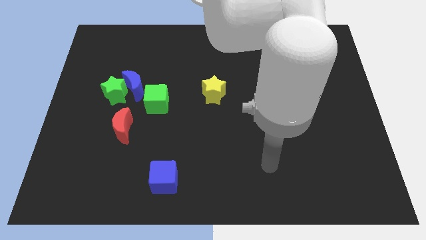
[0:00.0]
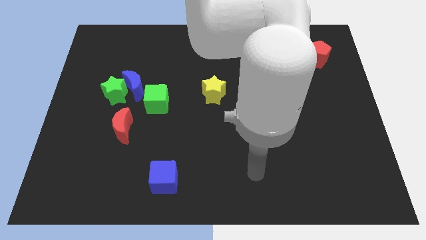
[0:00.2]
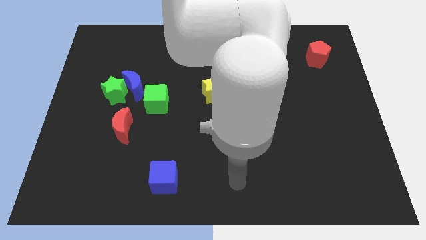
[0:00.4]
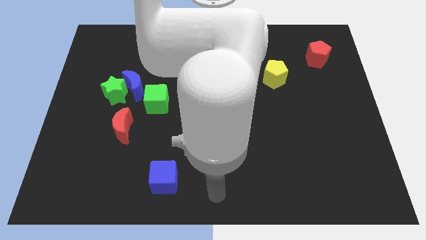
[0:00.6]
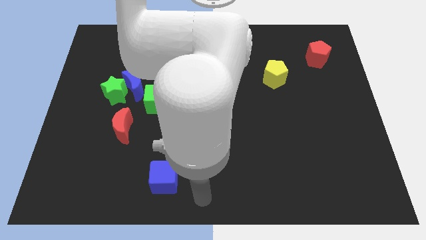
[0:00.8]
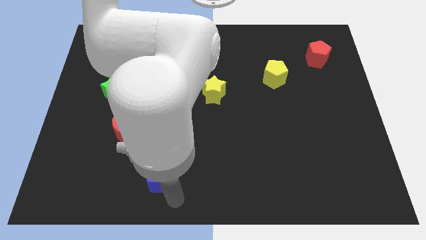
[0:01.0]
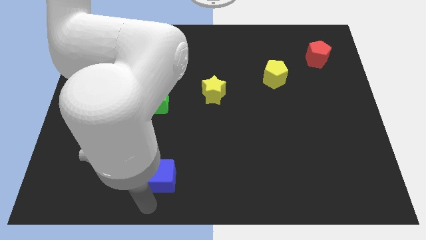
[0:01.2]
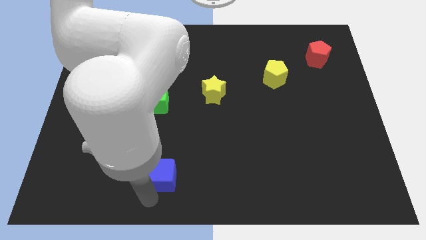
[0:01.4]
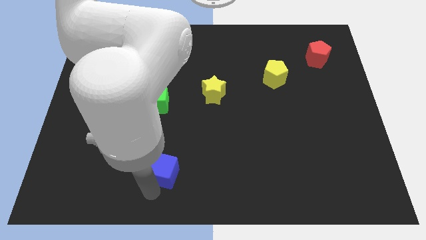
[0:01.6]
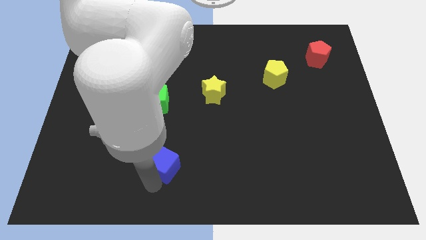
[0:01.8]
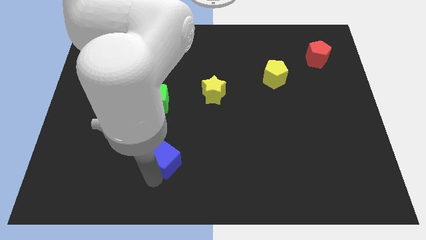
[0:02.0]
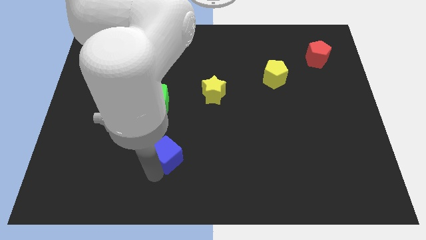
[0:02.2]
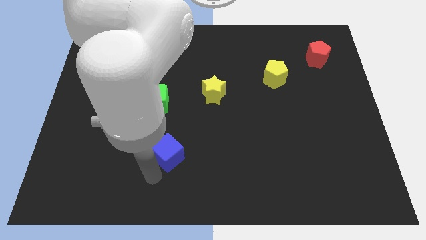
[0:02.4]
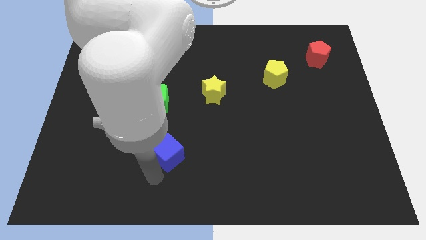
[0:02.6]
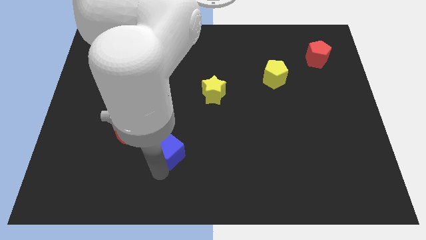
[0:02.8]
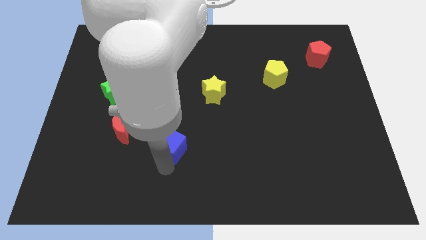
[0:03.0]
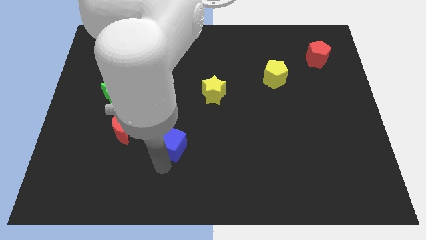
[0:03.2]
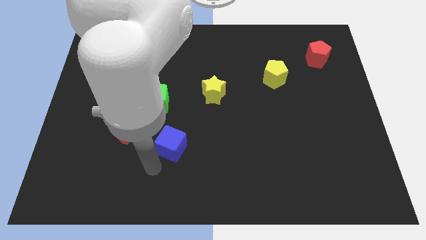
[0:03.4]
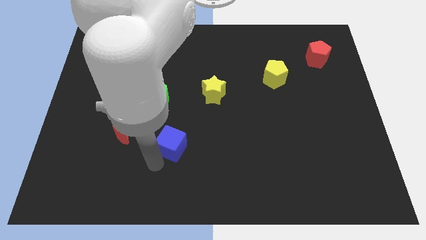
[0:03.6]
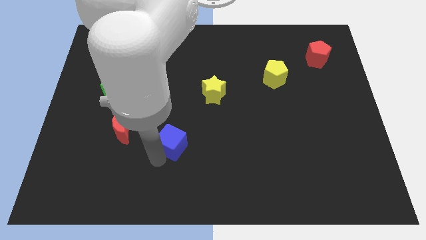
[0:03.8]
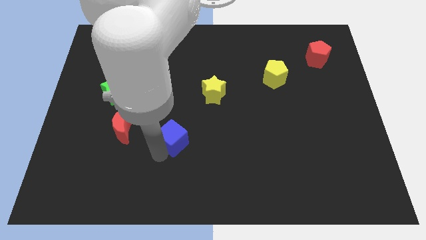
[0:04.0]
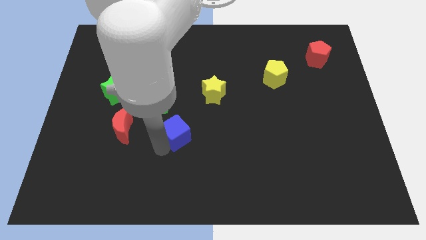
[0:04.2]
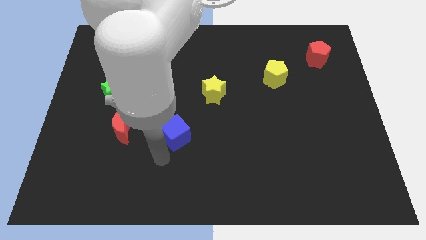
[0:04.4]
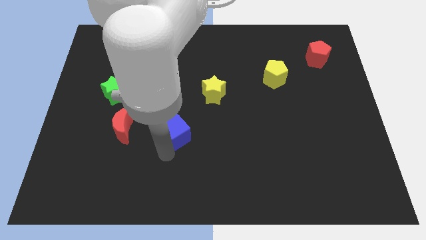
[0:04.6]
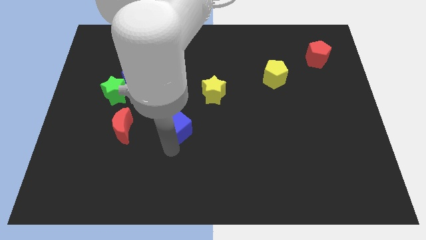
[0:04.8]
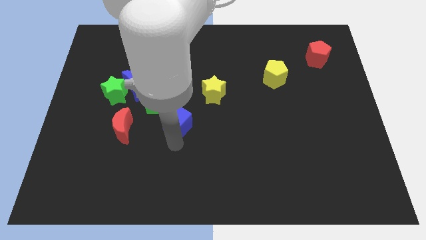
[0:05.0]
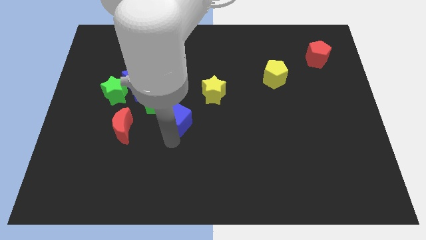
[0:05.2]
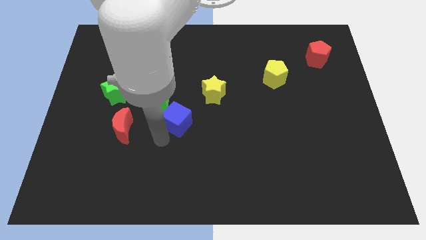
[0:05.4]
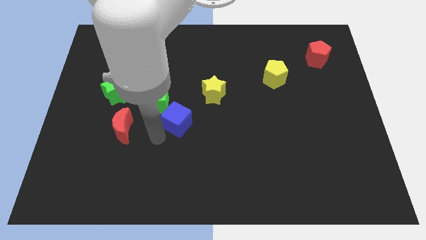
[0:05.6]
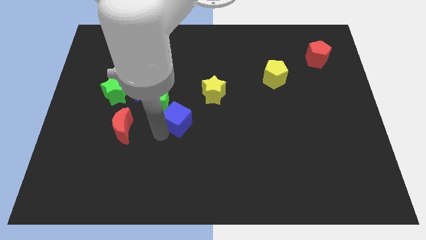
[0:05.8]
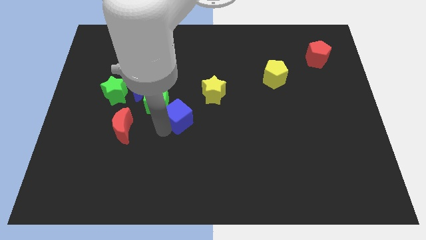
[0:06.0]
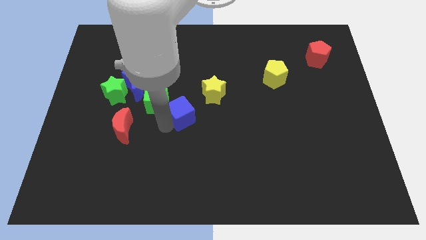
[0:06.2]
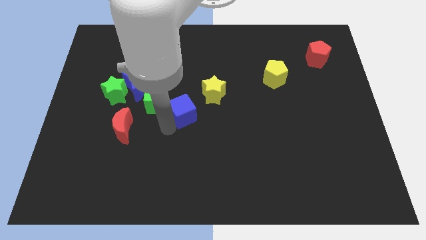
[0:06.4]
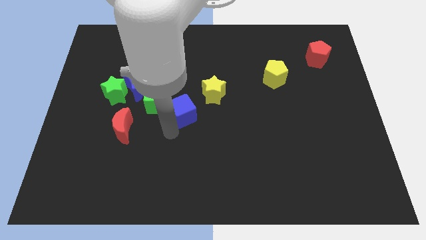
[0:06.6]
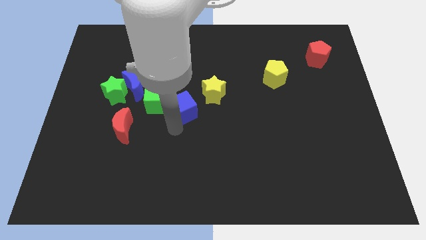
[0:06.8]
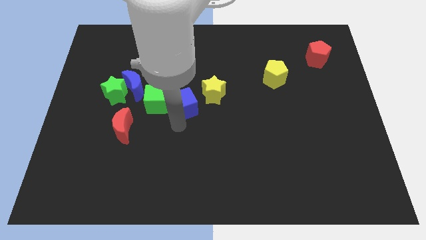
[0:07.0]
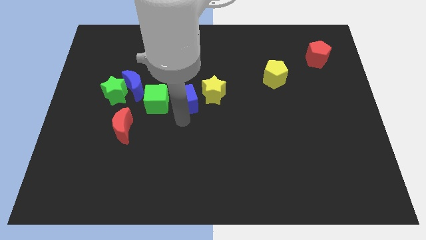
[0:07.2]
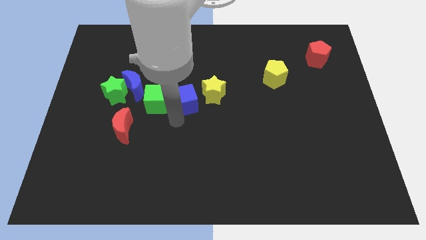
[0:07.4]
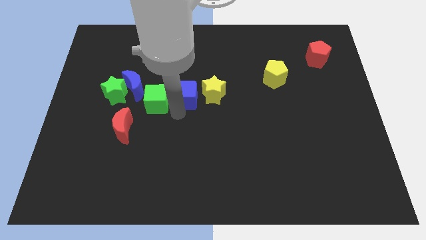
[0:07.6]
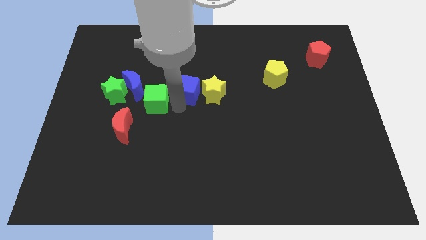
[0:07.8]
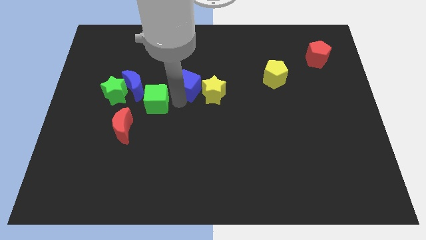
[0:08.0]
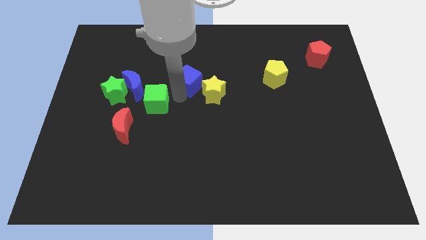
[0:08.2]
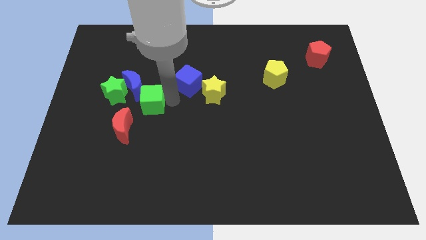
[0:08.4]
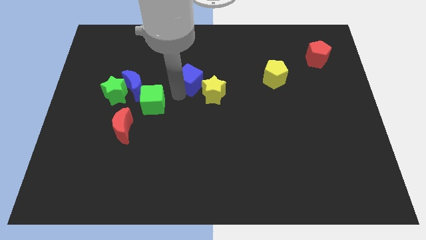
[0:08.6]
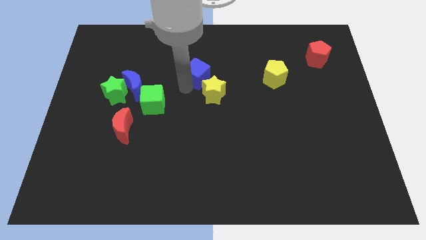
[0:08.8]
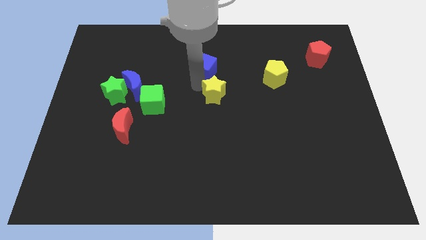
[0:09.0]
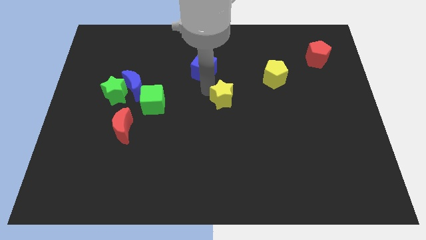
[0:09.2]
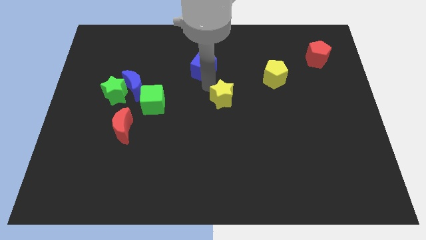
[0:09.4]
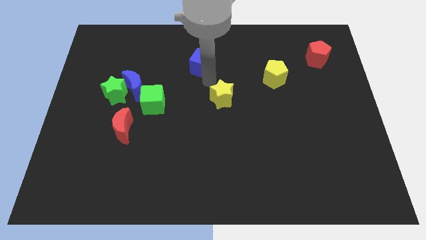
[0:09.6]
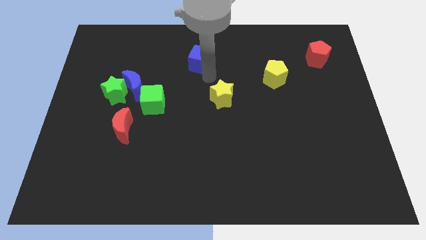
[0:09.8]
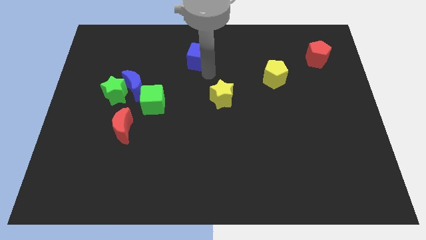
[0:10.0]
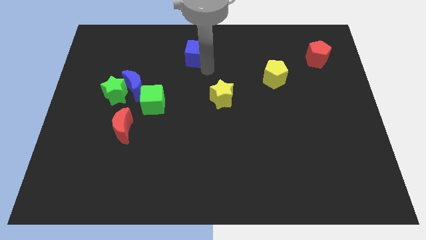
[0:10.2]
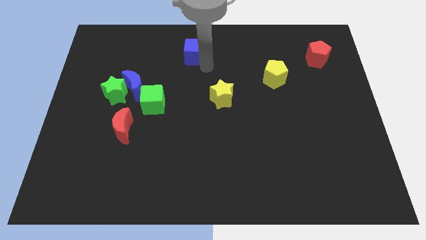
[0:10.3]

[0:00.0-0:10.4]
put the blue cube to the top
